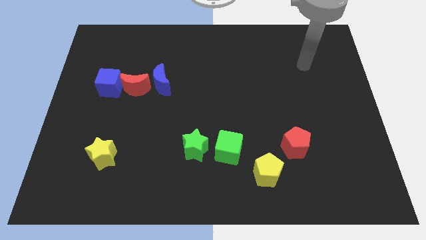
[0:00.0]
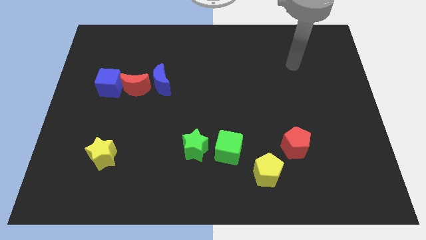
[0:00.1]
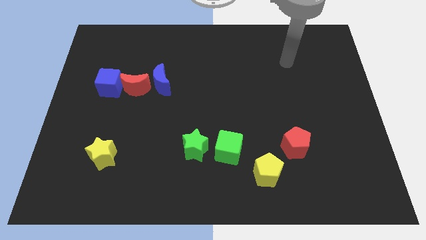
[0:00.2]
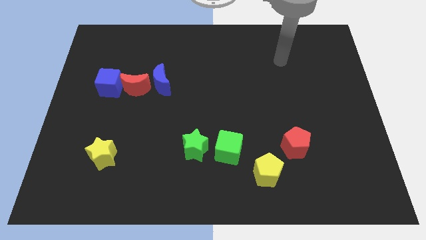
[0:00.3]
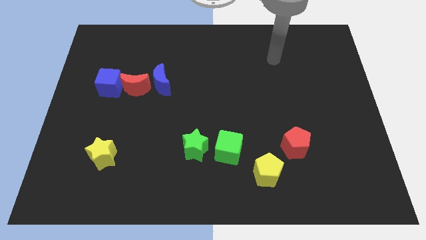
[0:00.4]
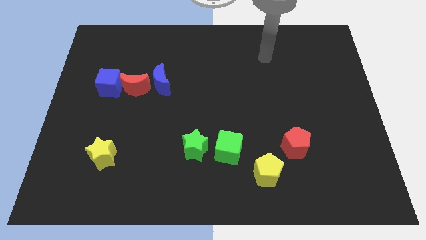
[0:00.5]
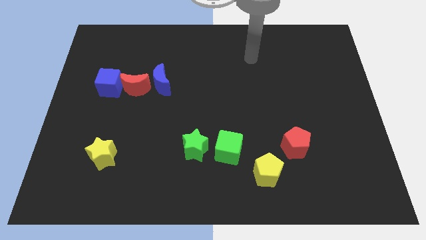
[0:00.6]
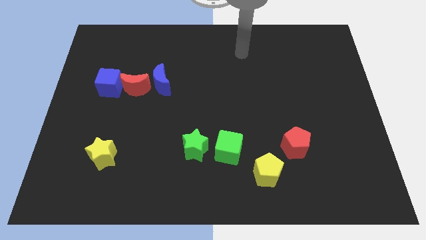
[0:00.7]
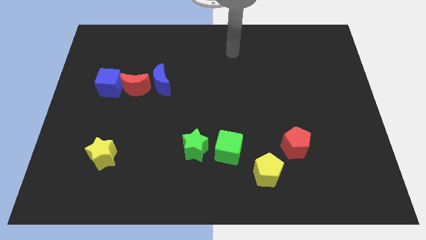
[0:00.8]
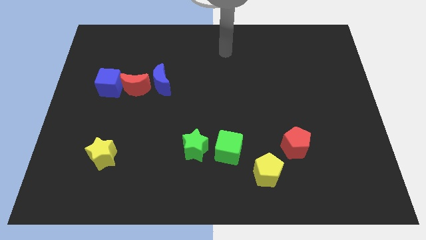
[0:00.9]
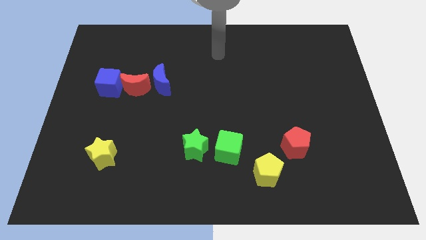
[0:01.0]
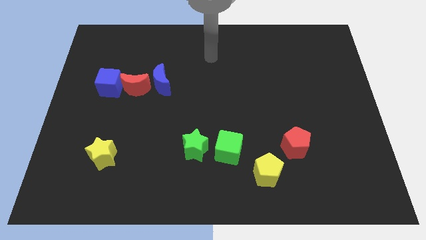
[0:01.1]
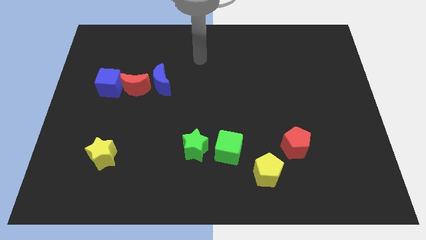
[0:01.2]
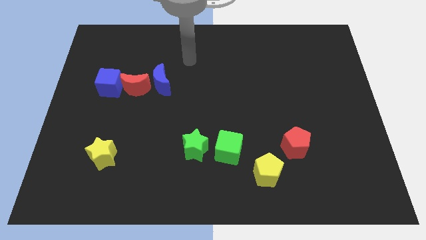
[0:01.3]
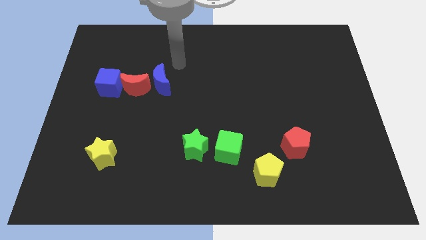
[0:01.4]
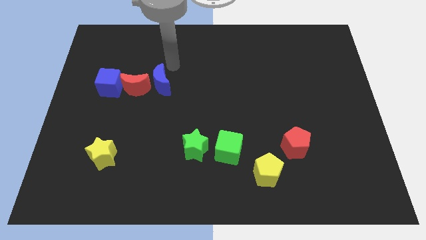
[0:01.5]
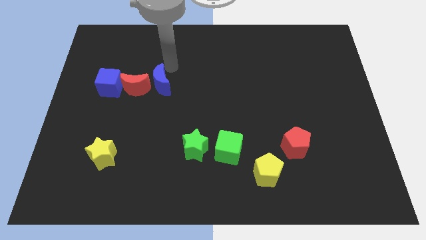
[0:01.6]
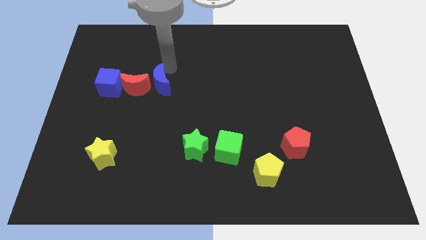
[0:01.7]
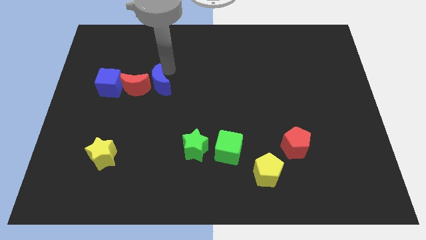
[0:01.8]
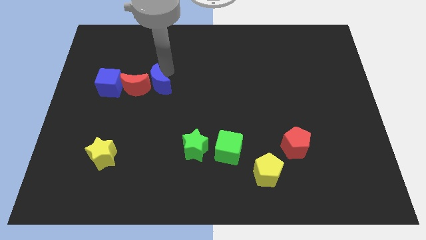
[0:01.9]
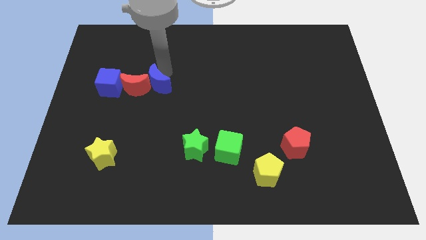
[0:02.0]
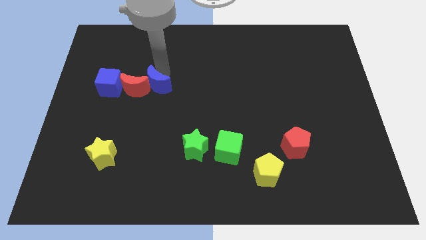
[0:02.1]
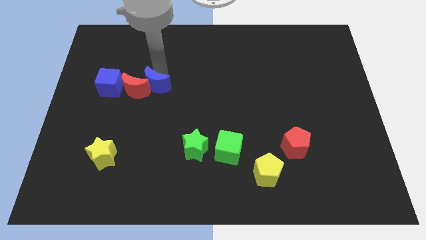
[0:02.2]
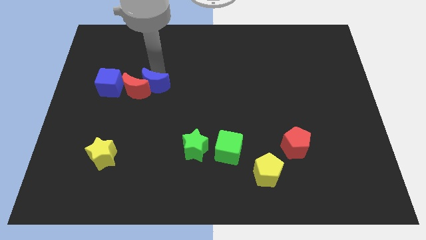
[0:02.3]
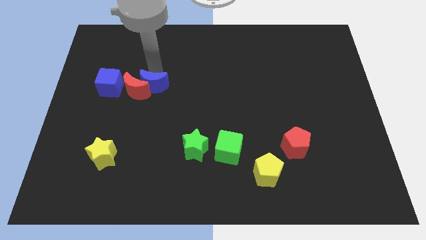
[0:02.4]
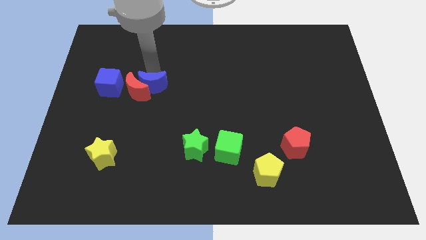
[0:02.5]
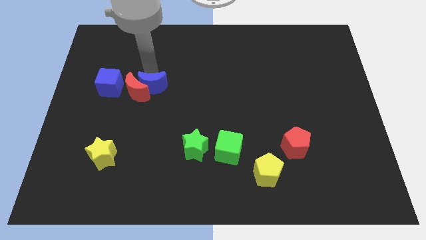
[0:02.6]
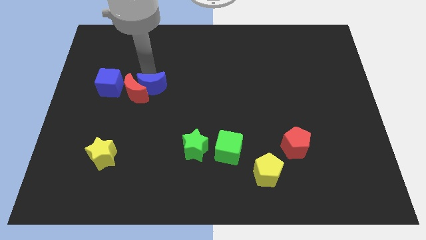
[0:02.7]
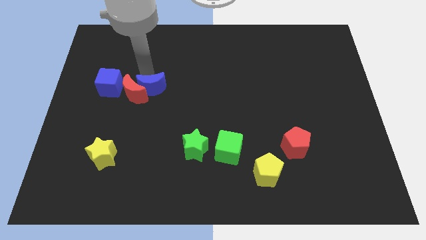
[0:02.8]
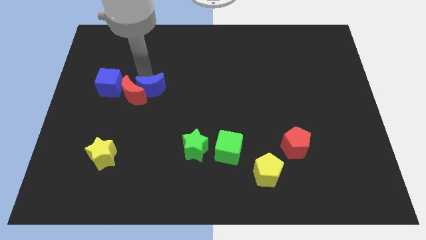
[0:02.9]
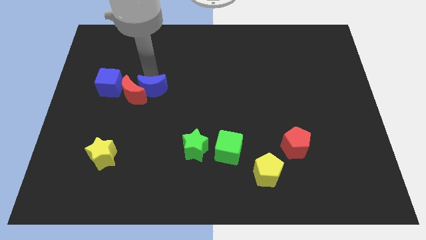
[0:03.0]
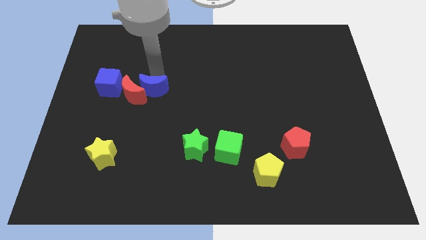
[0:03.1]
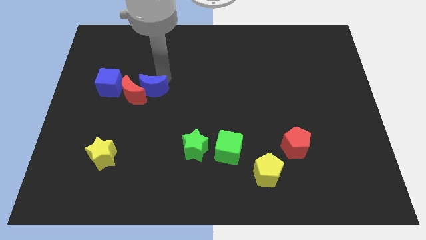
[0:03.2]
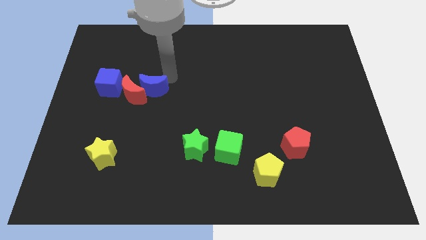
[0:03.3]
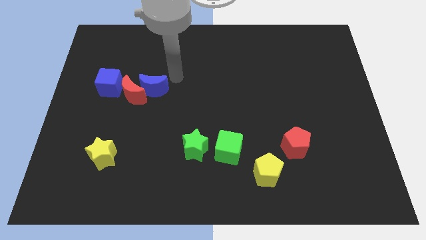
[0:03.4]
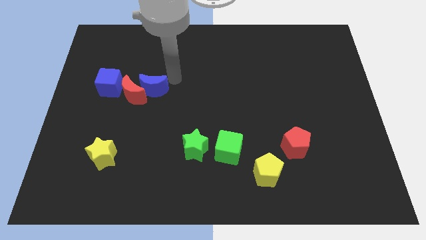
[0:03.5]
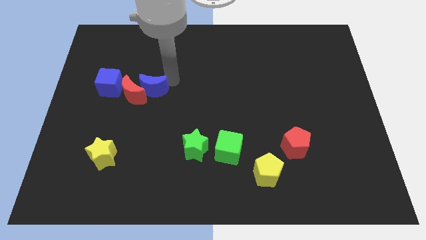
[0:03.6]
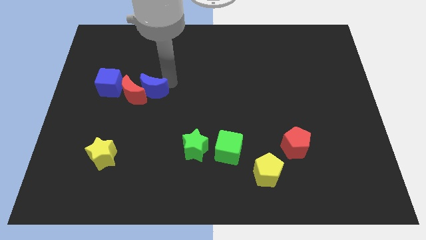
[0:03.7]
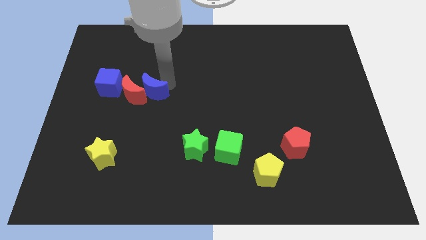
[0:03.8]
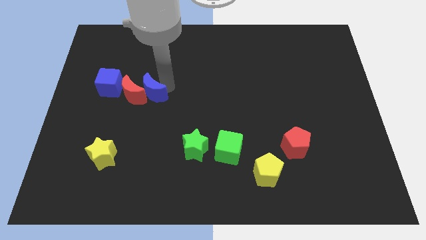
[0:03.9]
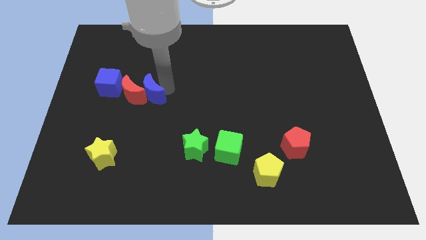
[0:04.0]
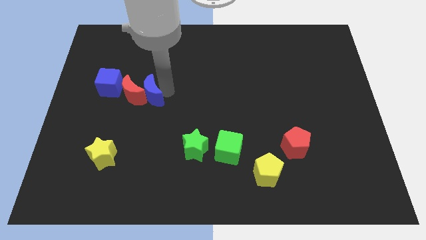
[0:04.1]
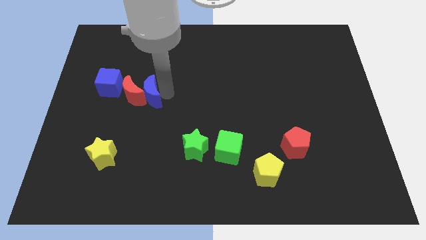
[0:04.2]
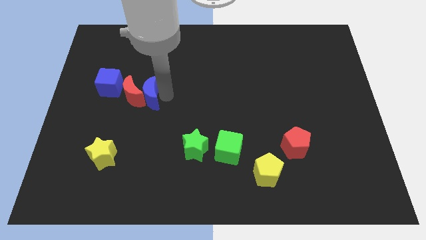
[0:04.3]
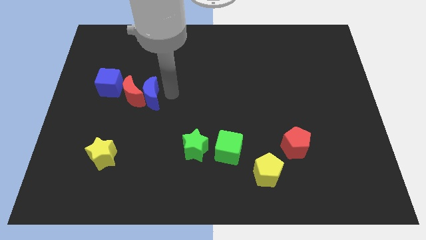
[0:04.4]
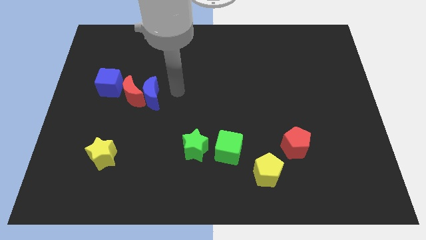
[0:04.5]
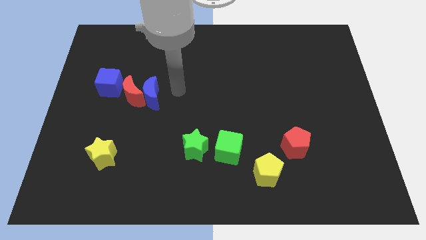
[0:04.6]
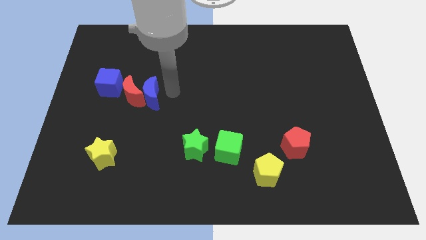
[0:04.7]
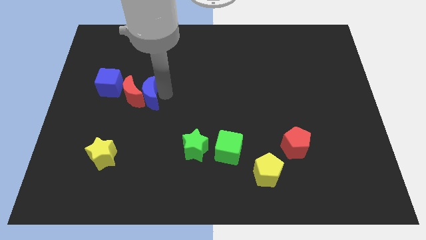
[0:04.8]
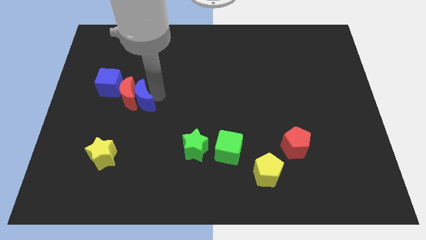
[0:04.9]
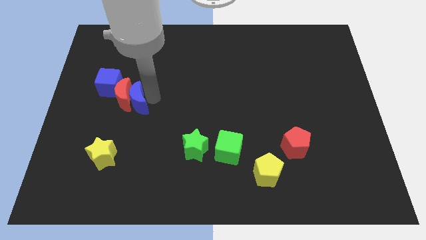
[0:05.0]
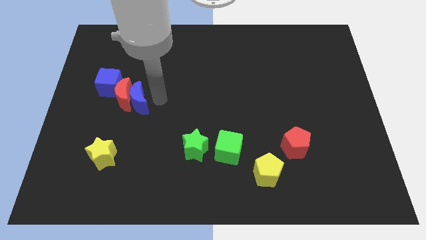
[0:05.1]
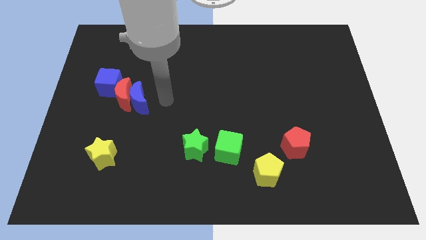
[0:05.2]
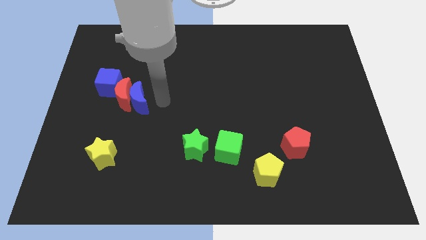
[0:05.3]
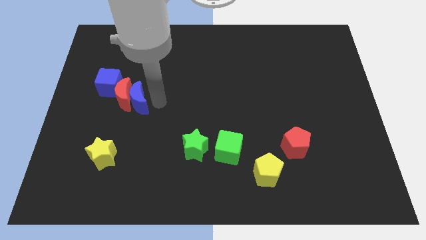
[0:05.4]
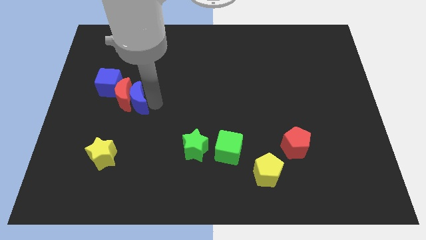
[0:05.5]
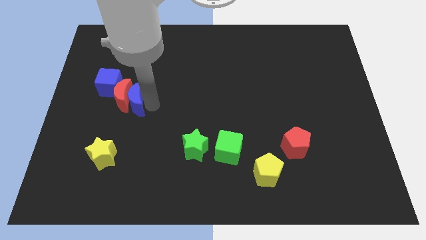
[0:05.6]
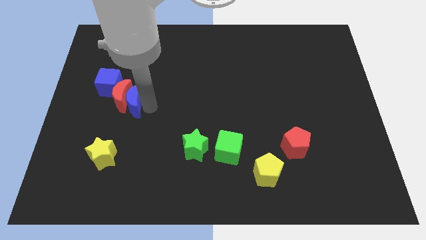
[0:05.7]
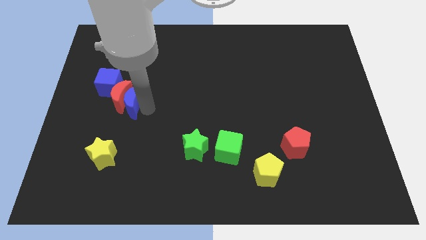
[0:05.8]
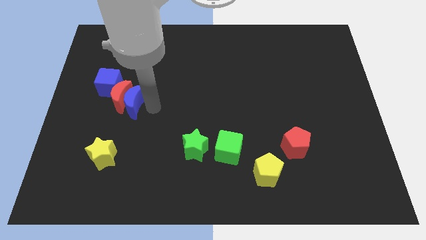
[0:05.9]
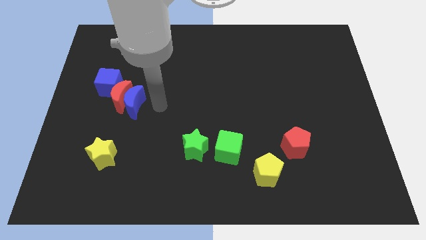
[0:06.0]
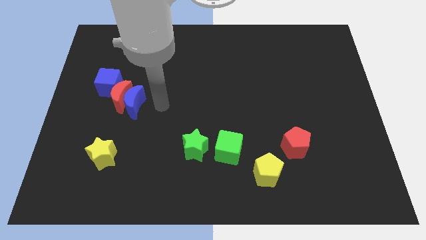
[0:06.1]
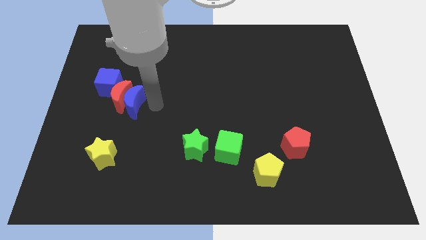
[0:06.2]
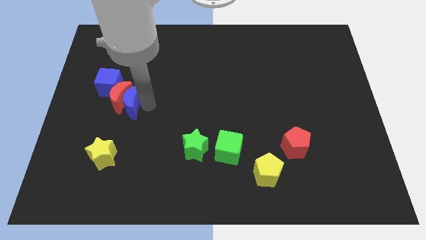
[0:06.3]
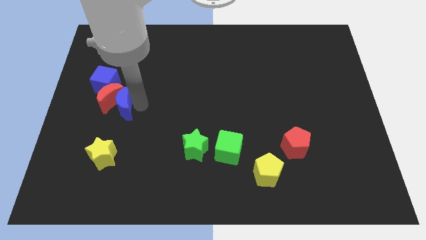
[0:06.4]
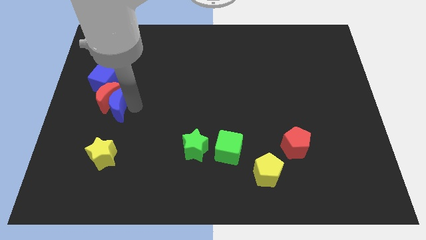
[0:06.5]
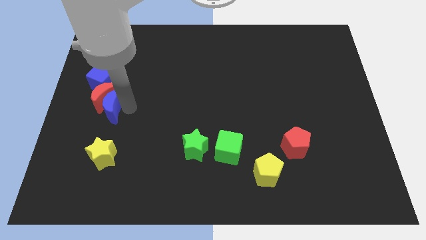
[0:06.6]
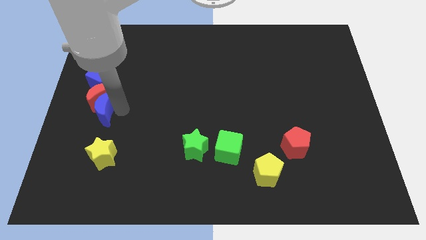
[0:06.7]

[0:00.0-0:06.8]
move the blue moon to the center left

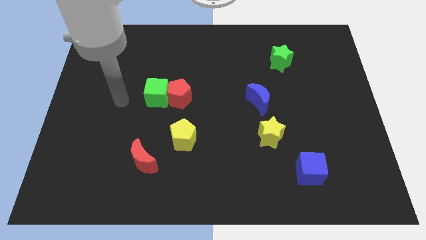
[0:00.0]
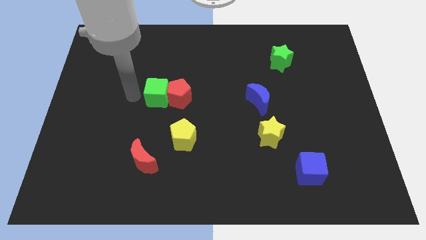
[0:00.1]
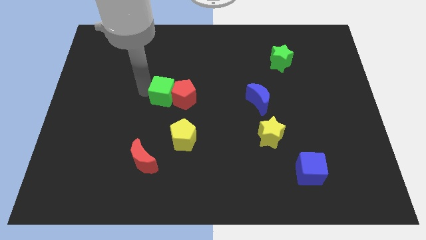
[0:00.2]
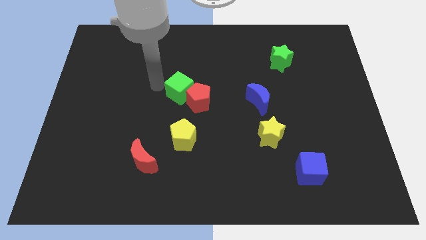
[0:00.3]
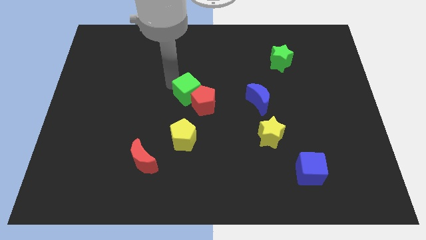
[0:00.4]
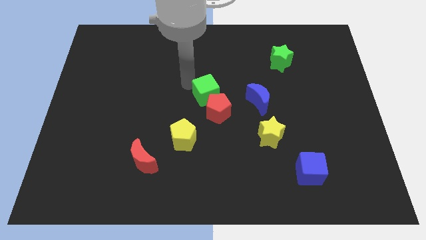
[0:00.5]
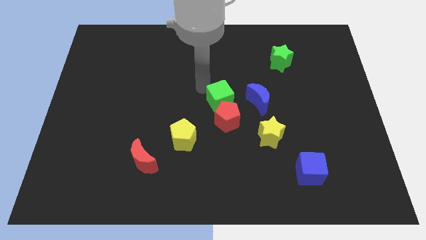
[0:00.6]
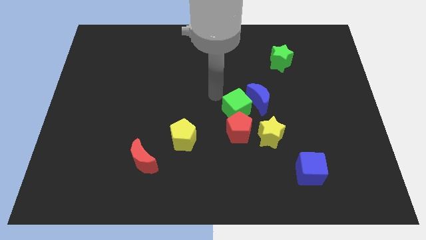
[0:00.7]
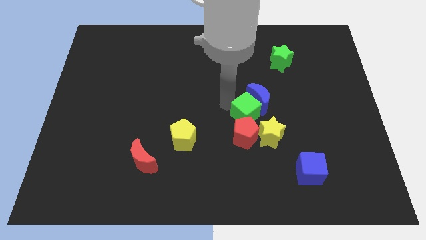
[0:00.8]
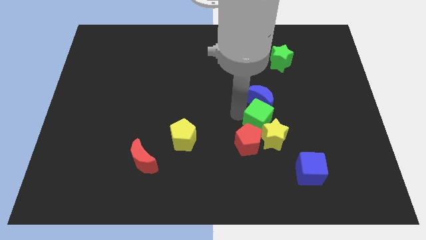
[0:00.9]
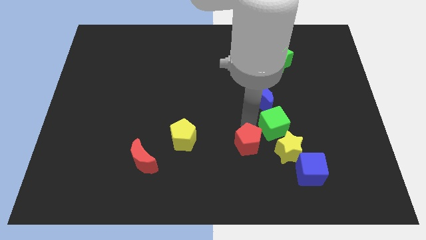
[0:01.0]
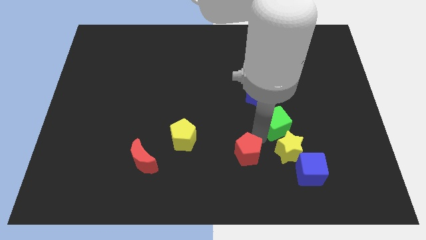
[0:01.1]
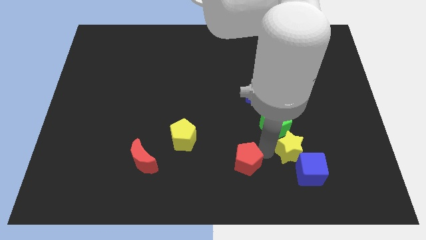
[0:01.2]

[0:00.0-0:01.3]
push the red pentagon to the bottom side
